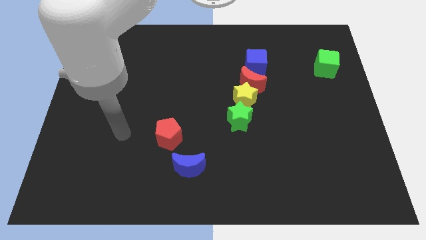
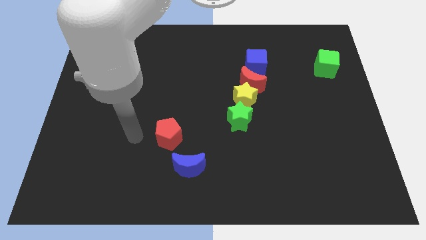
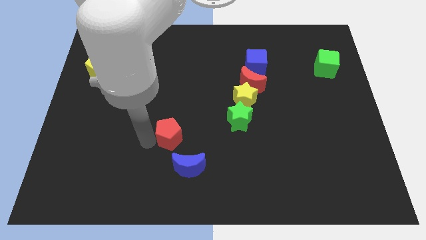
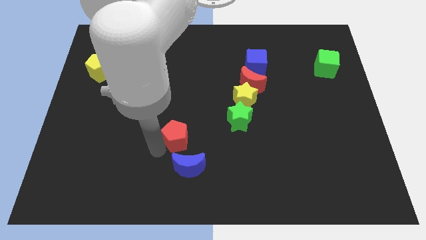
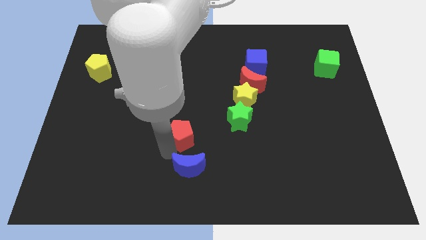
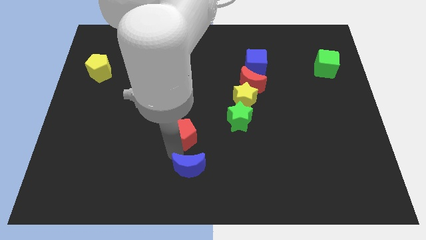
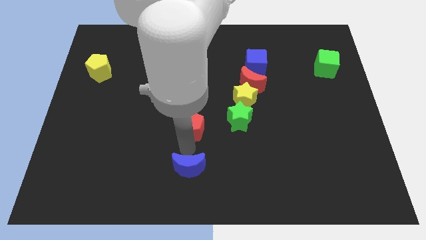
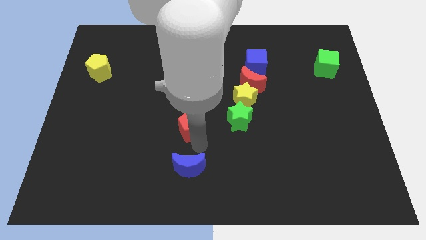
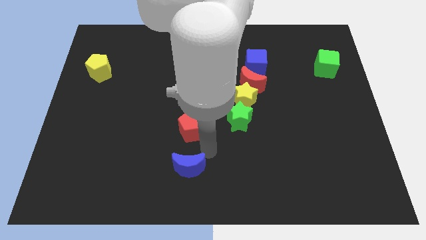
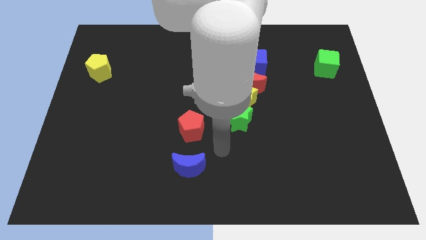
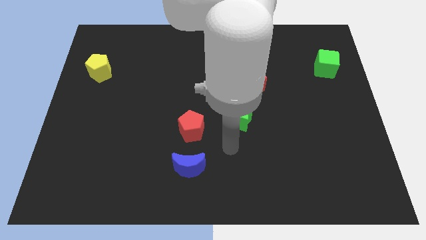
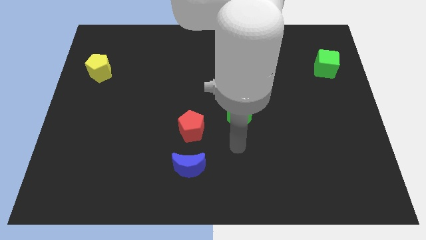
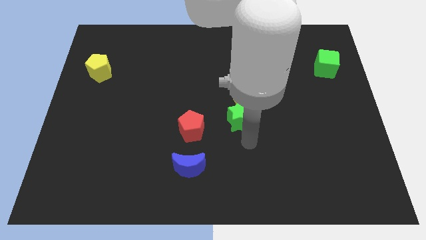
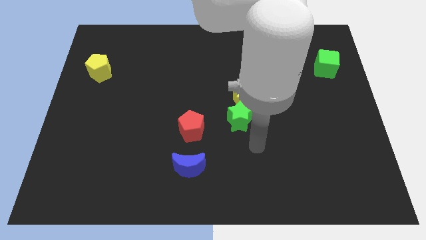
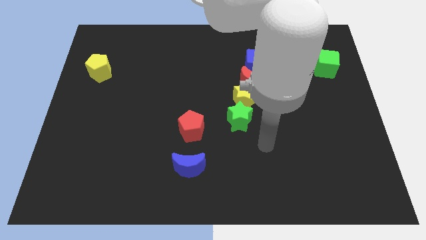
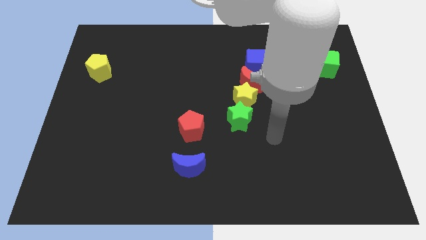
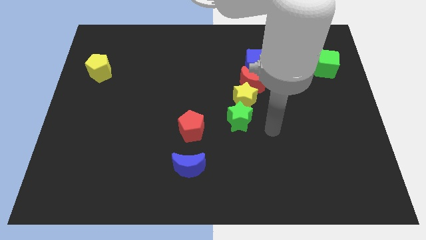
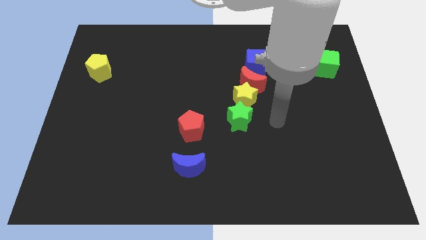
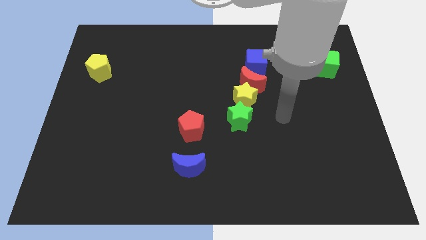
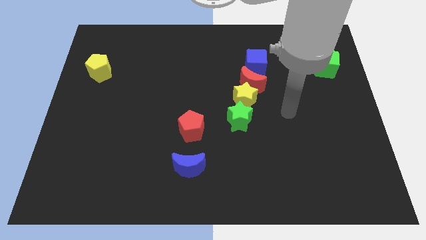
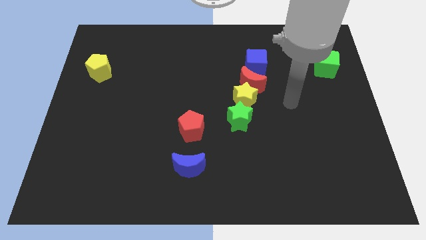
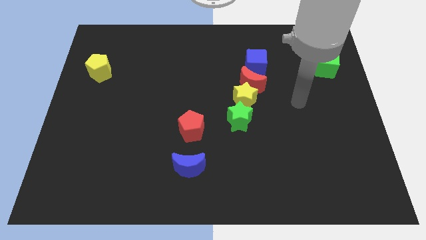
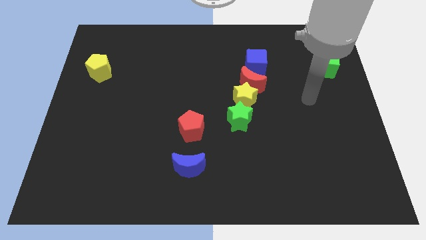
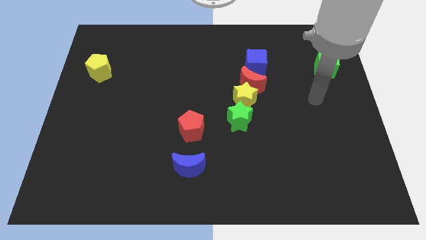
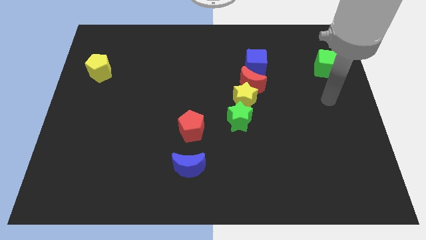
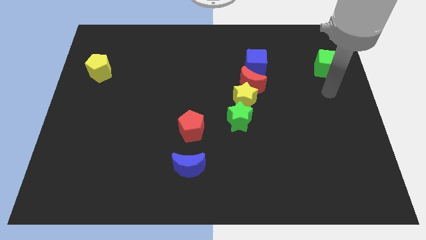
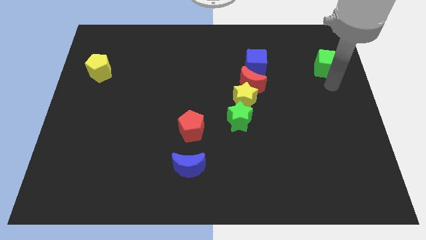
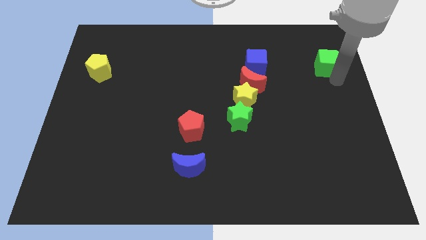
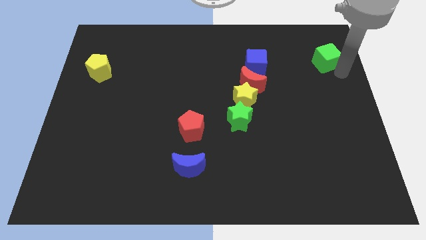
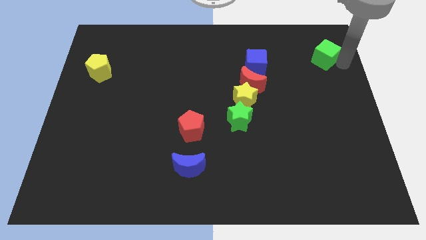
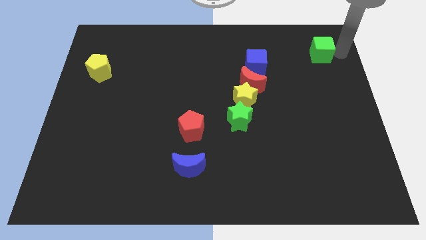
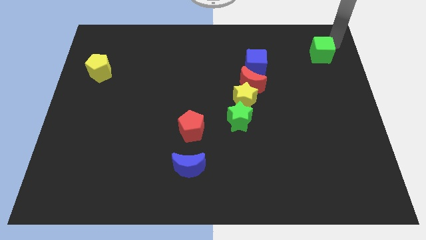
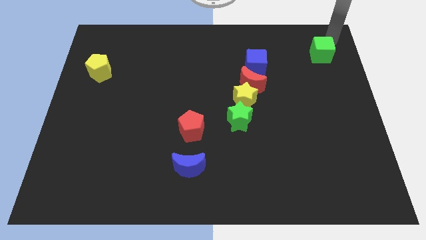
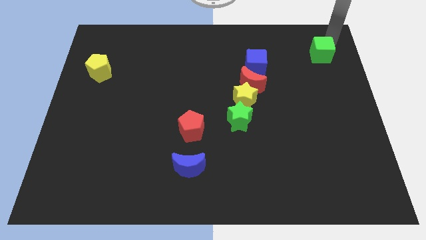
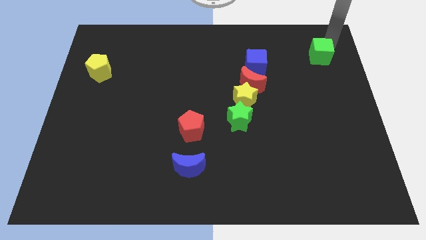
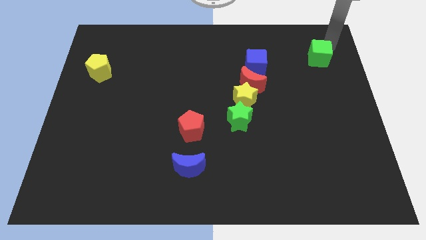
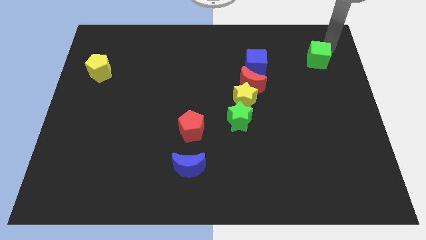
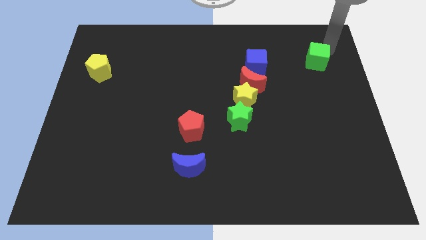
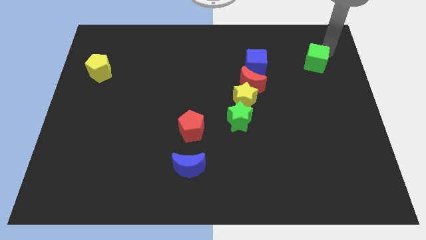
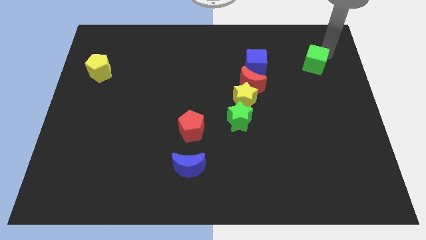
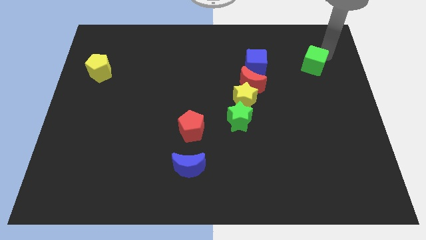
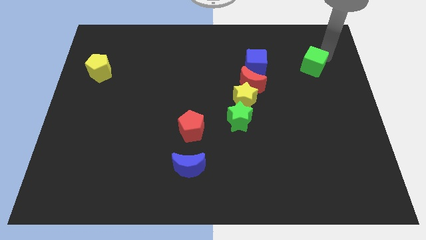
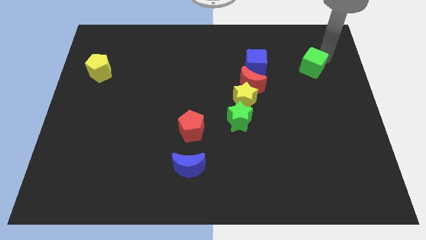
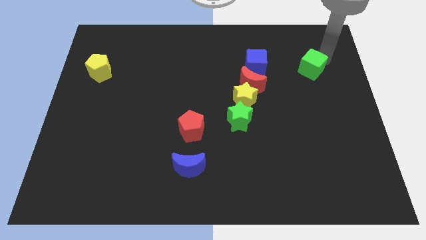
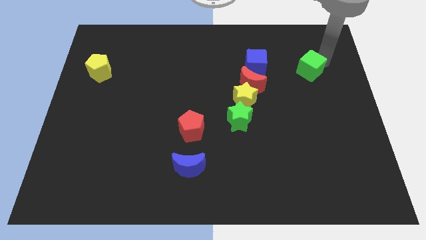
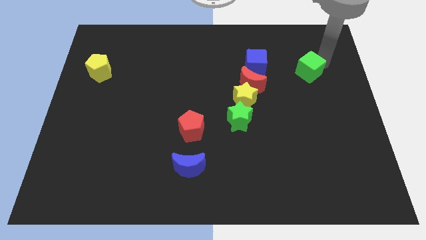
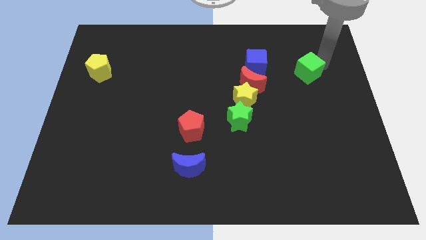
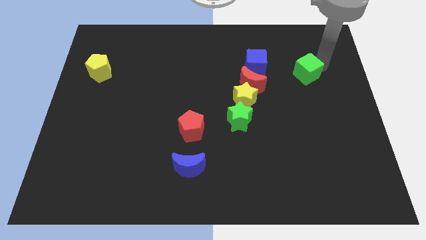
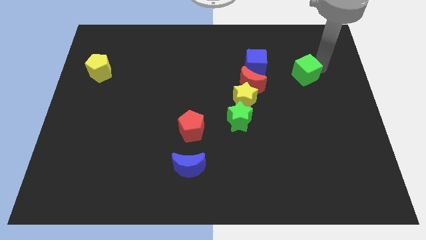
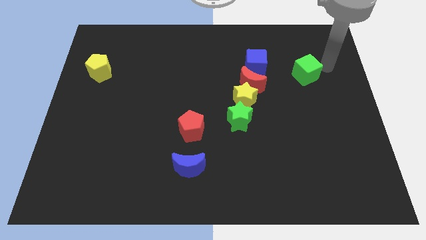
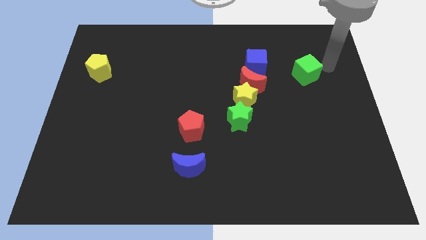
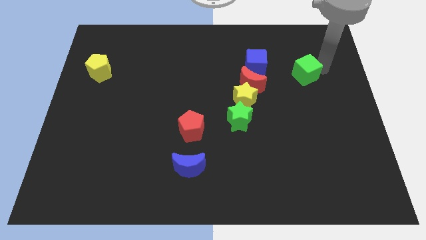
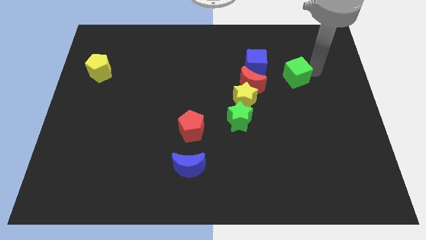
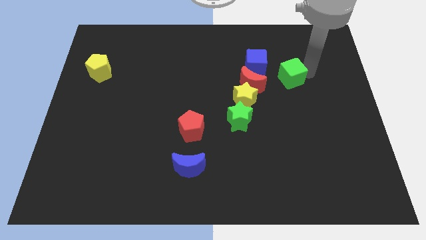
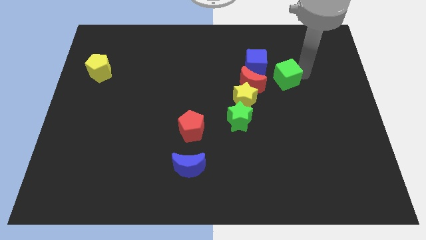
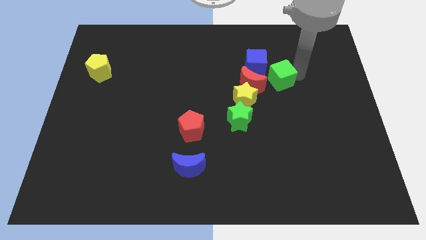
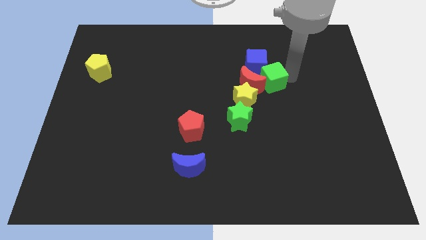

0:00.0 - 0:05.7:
put the green cube close to the red moon

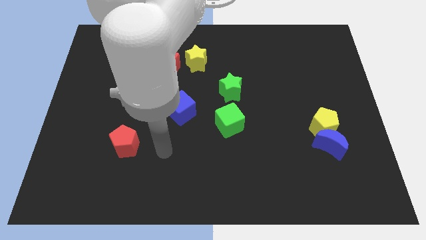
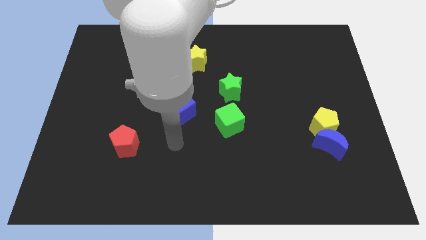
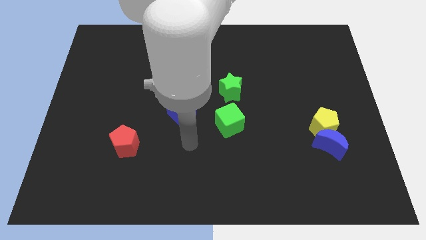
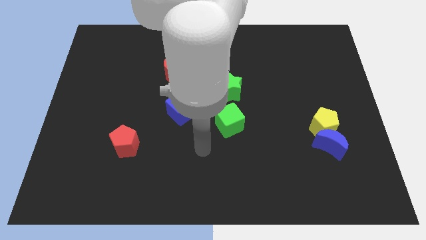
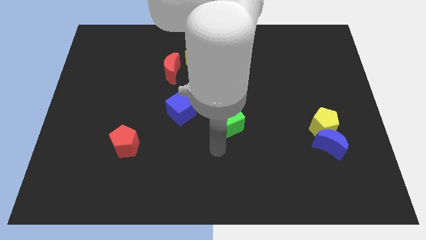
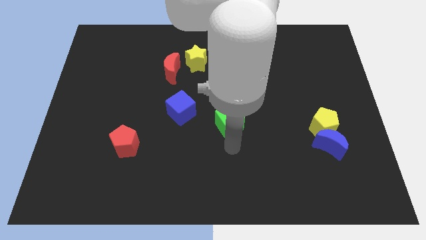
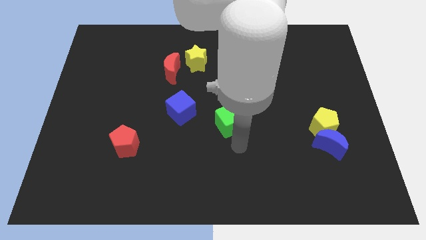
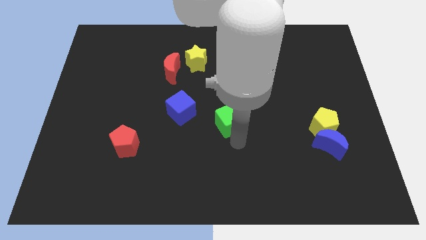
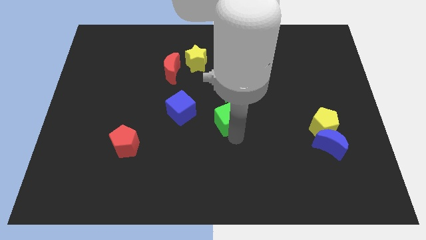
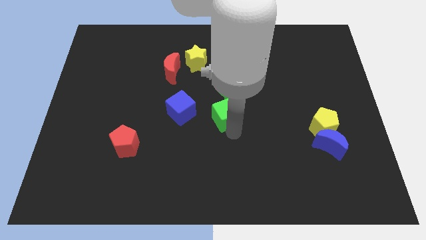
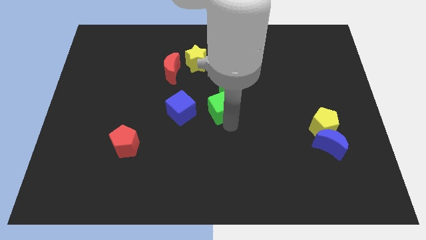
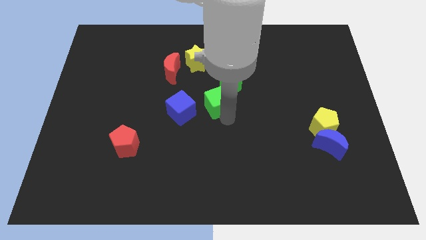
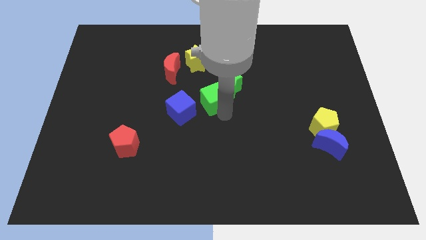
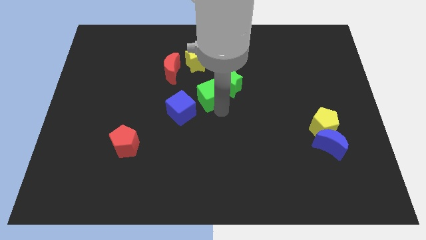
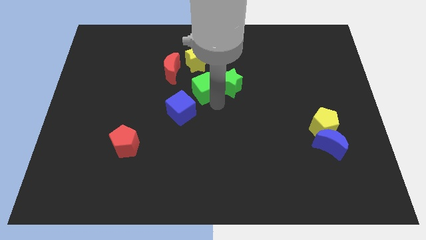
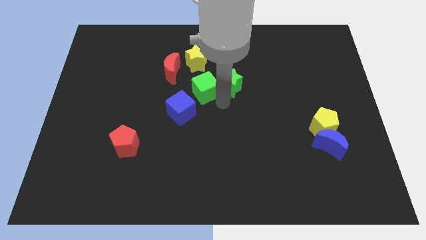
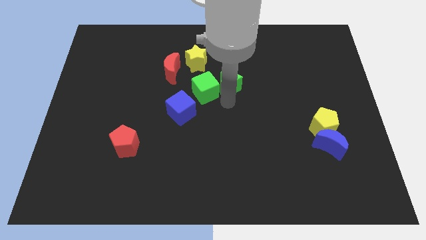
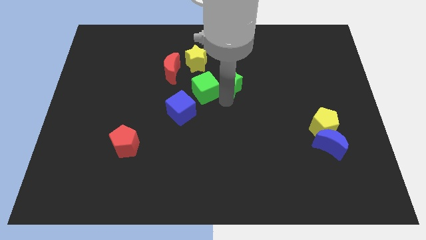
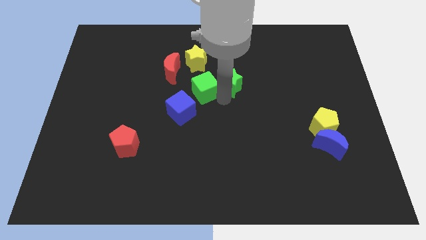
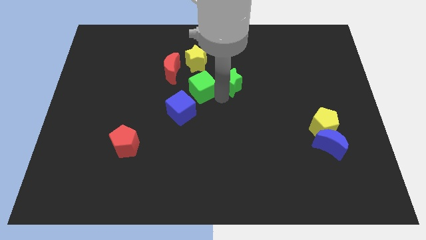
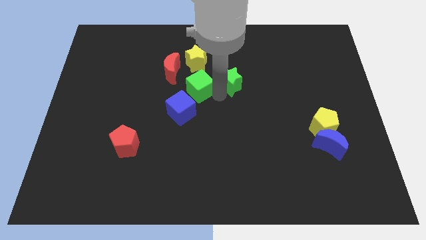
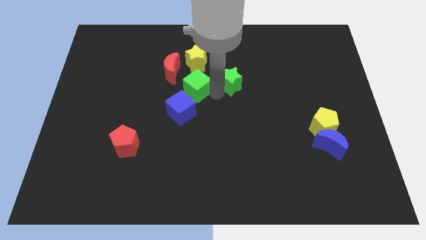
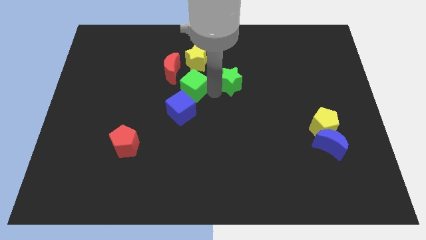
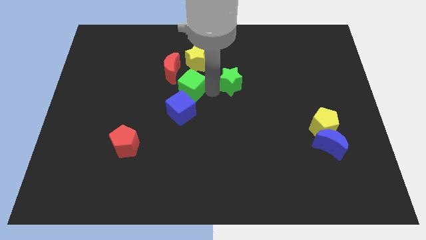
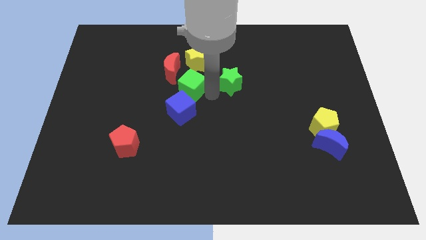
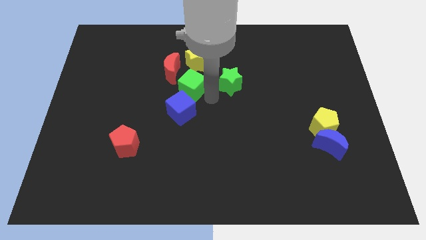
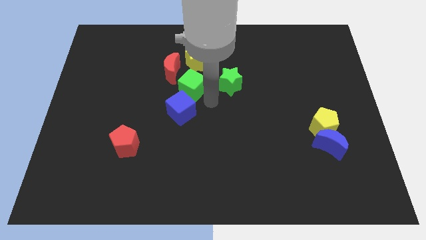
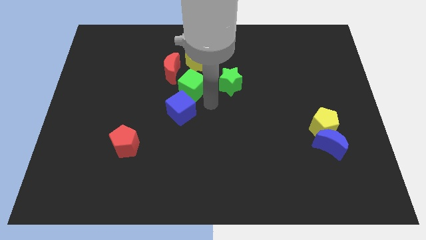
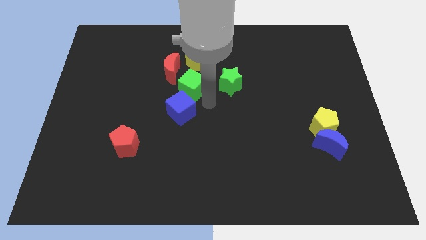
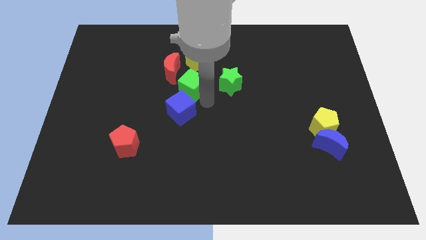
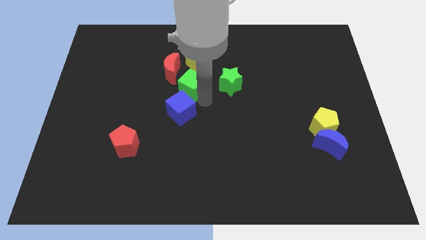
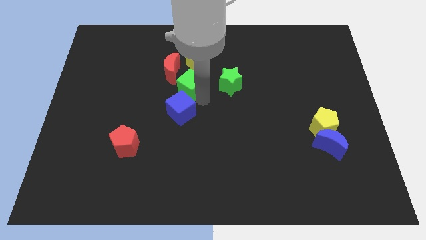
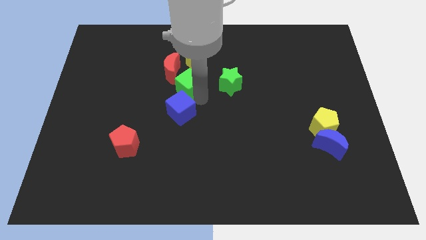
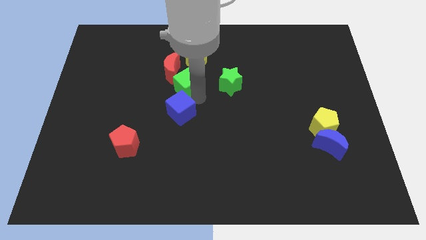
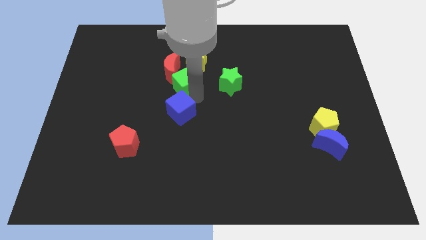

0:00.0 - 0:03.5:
move the green cube towards the red moon
